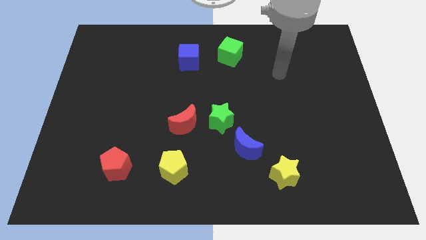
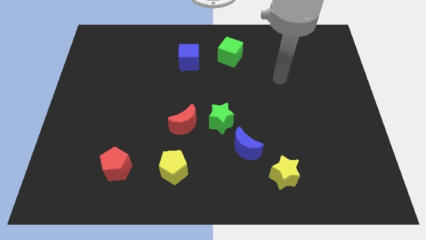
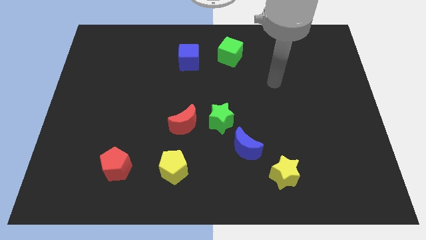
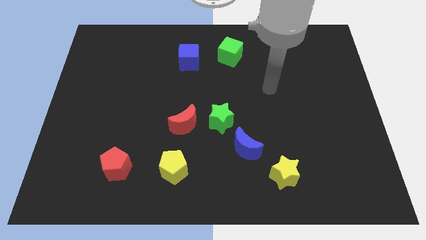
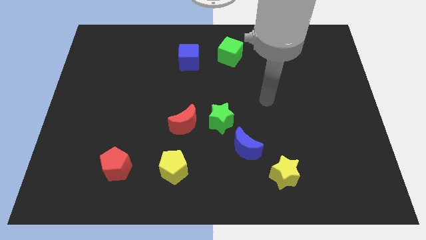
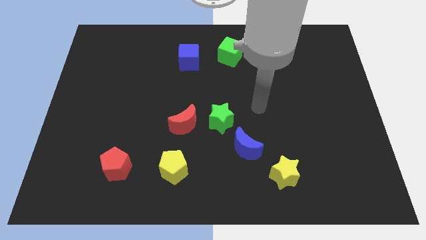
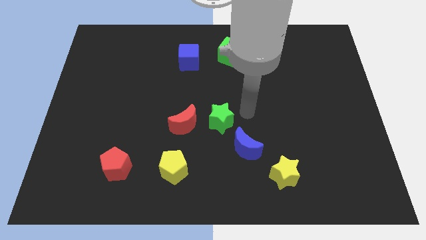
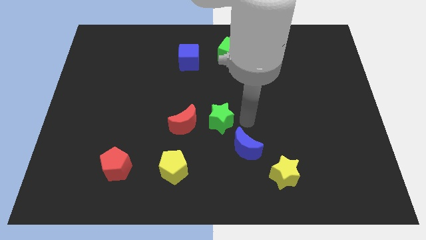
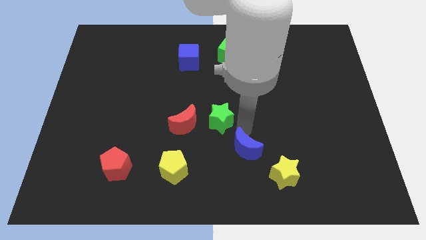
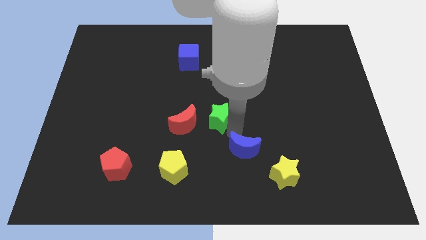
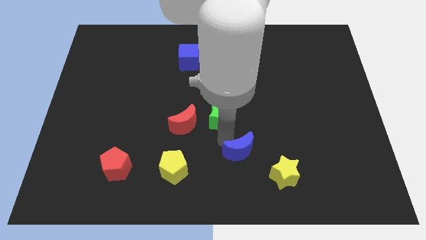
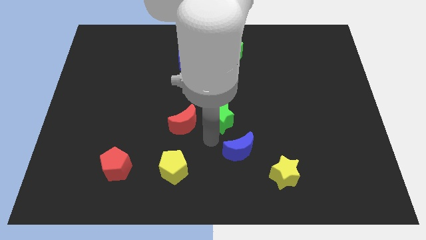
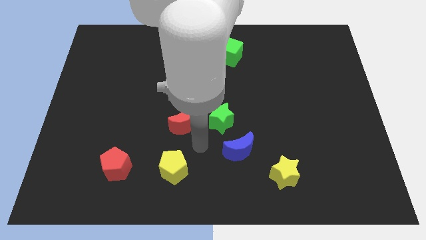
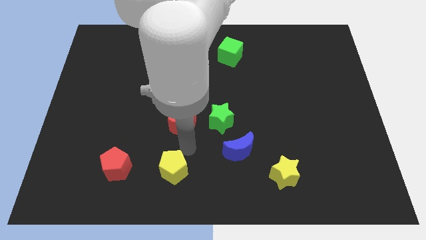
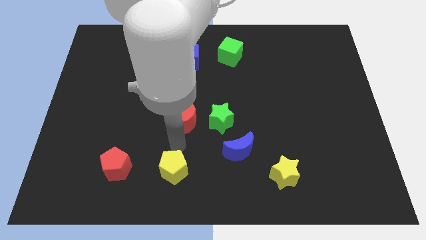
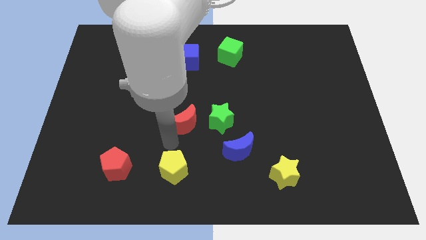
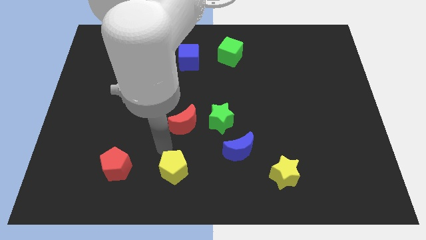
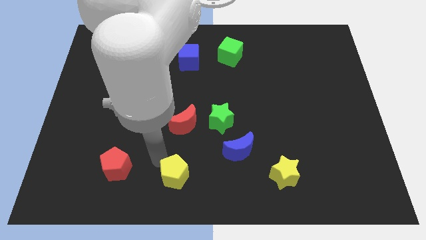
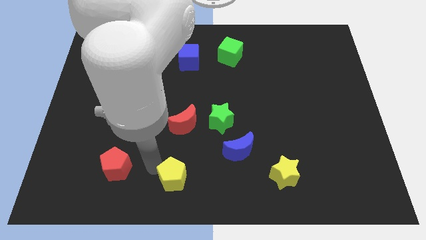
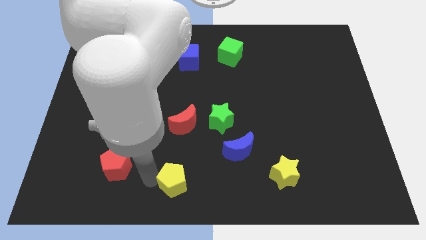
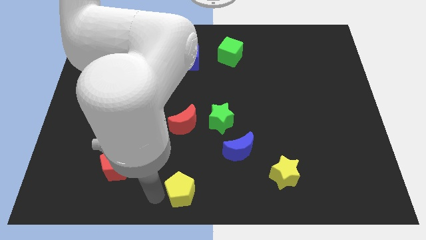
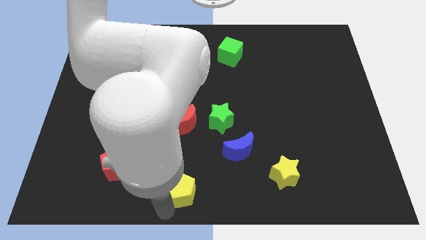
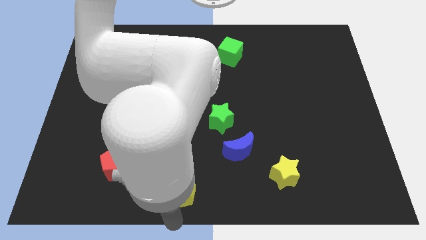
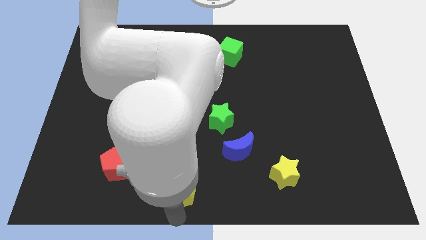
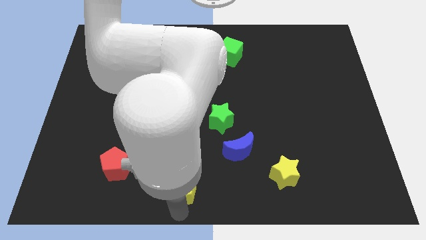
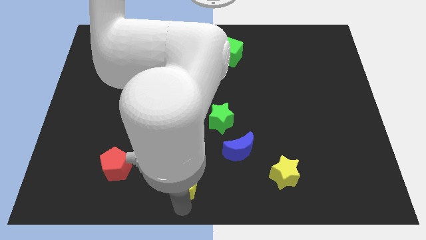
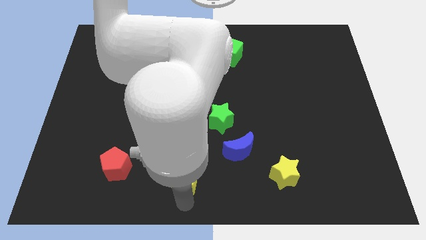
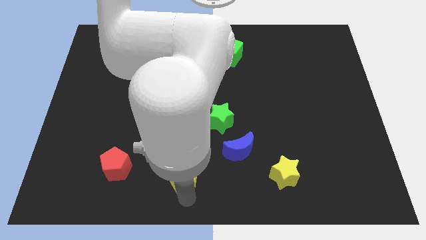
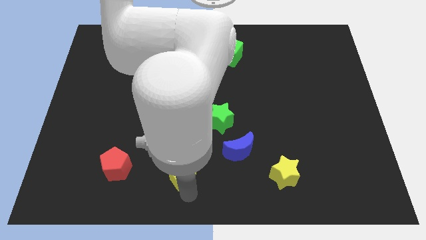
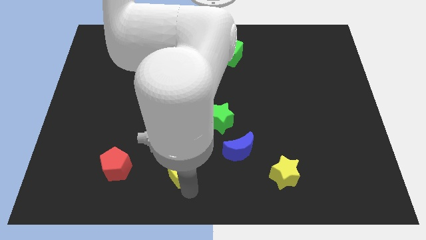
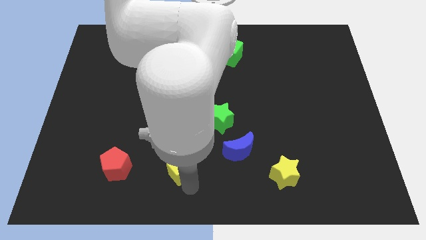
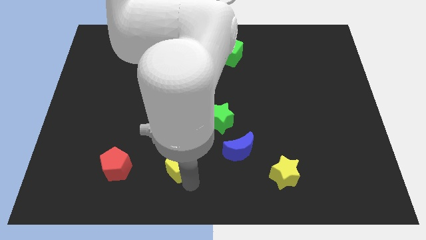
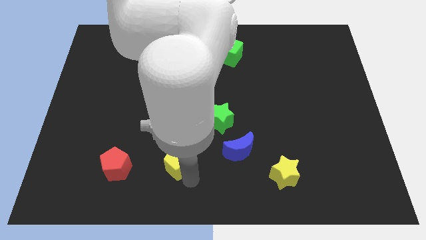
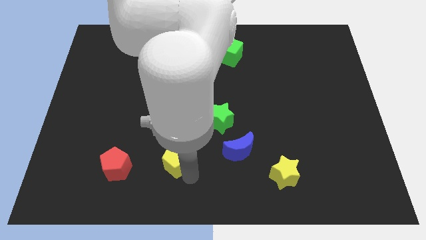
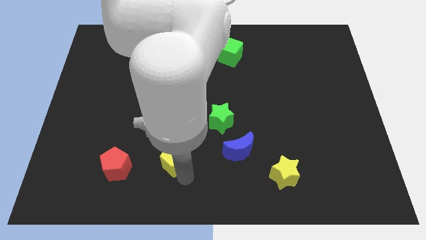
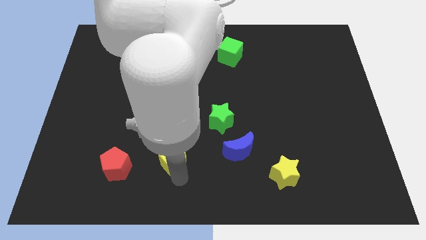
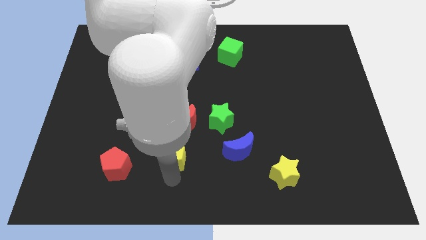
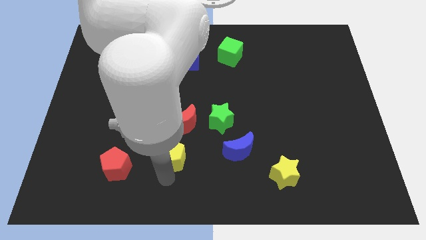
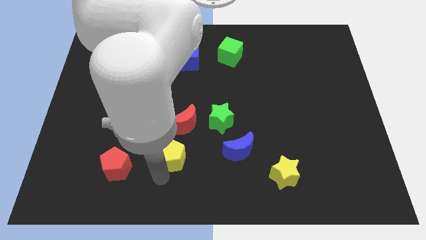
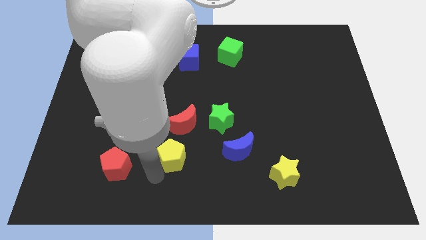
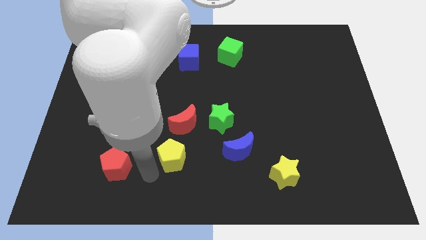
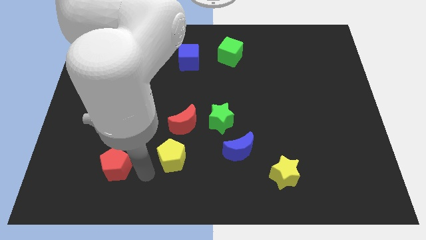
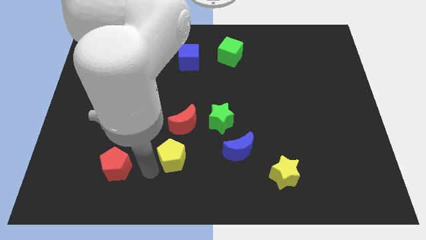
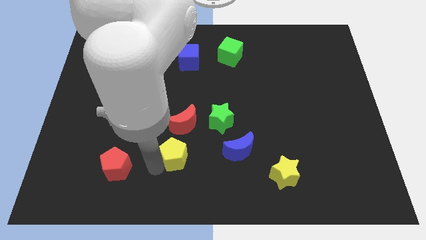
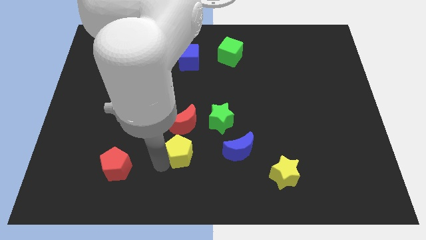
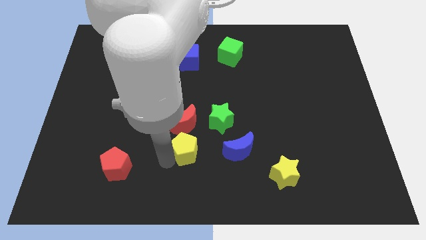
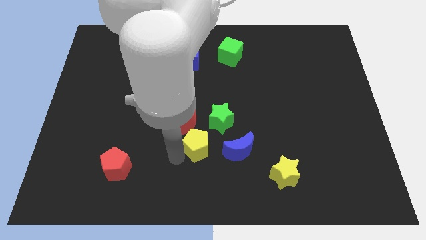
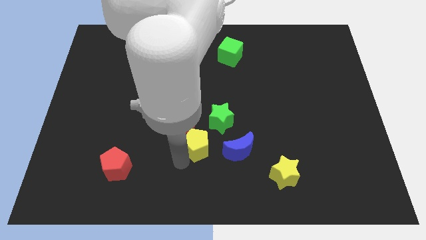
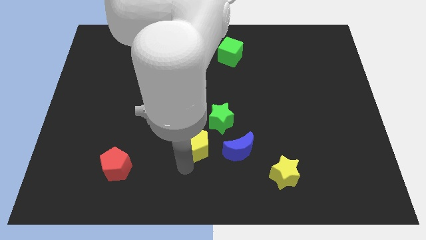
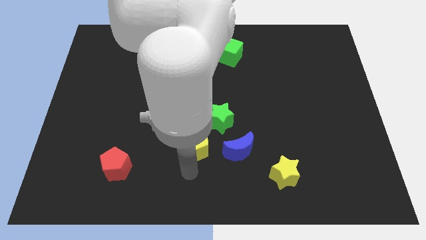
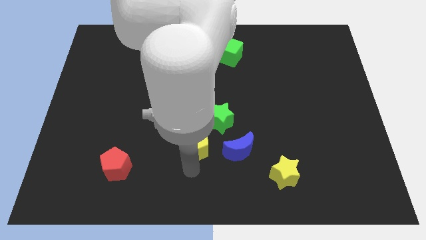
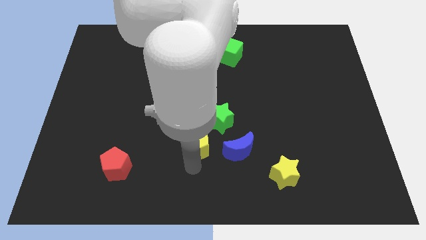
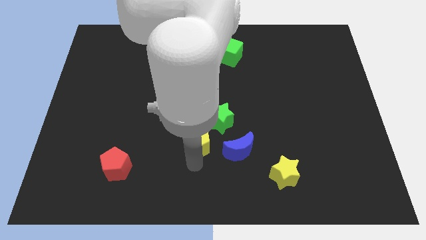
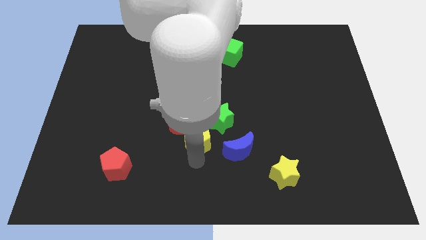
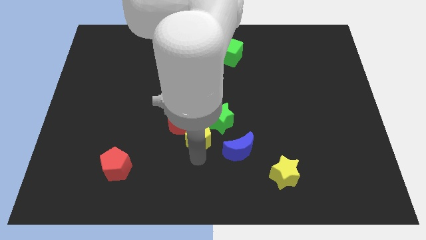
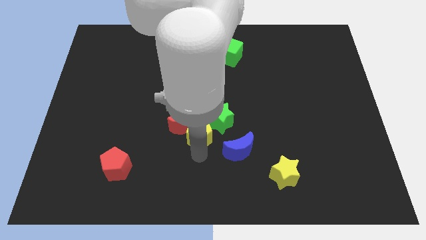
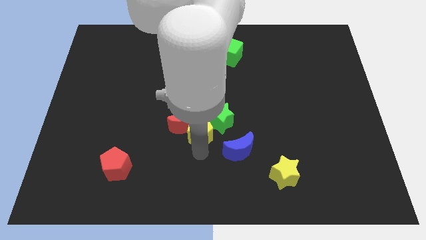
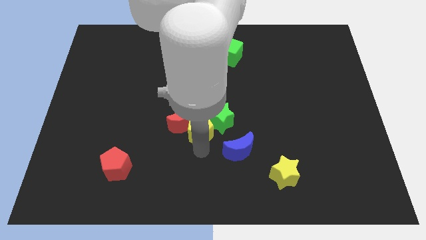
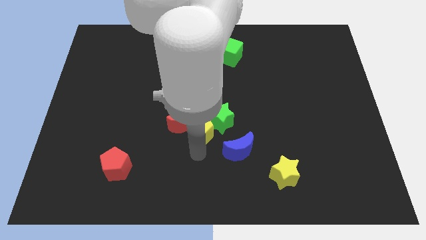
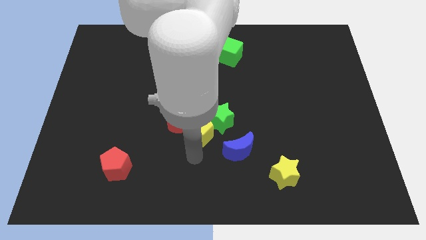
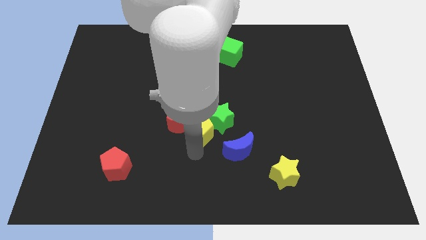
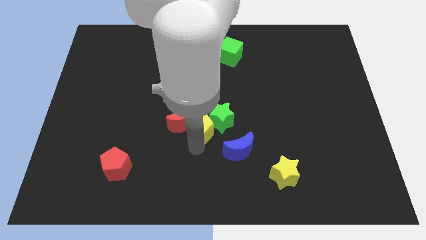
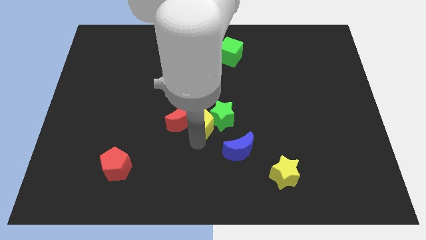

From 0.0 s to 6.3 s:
push the yellow pentagon to the top right side of the red moon

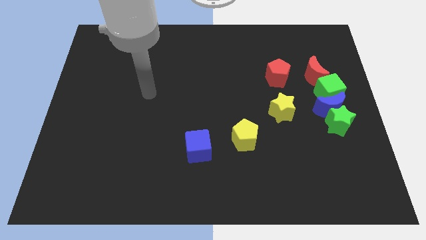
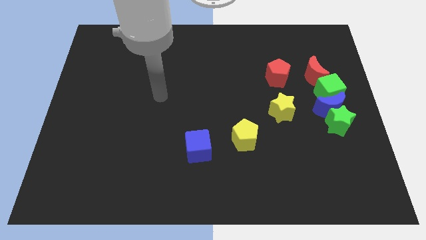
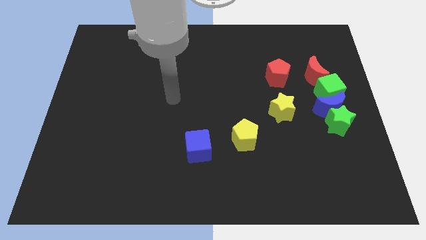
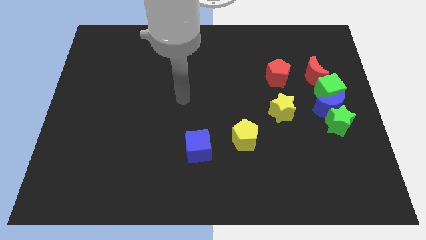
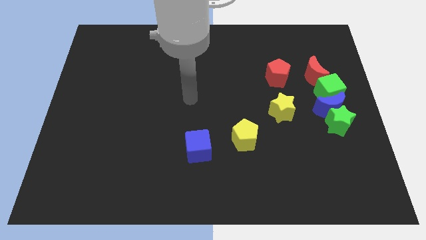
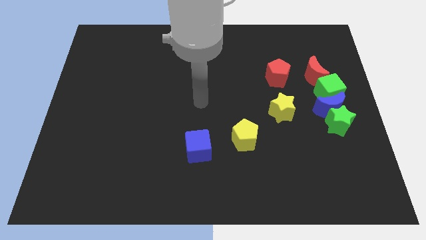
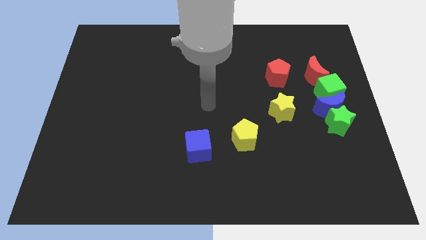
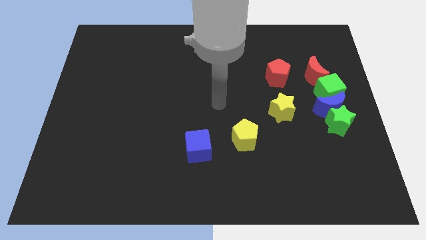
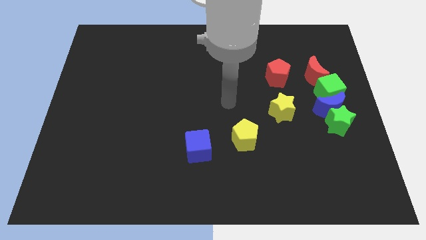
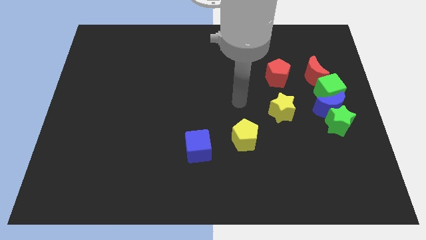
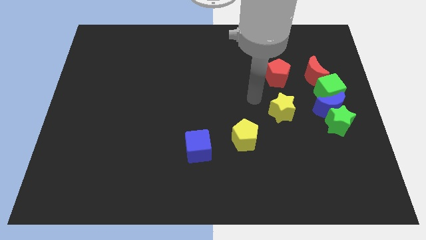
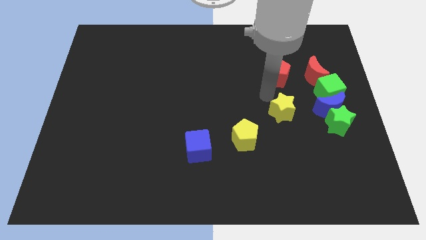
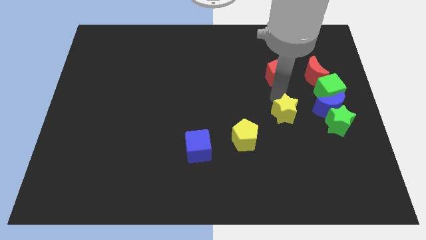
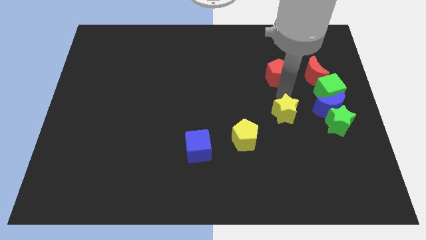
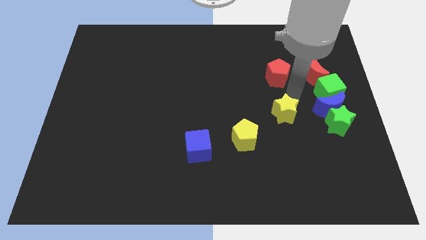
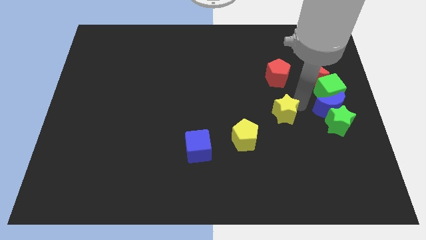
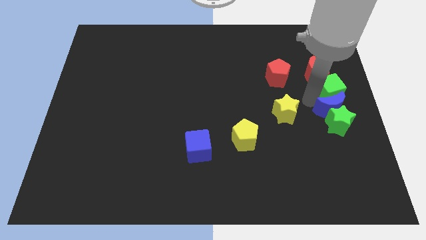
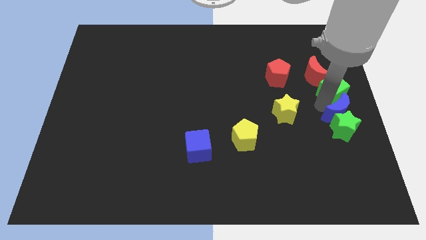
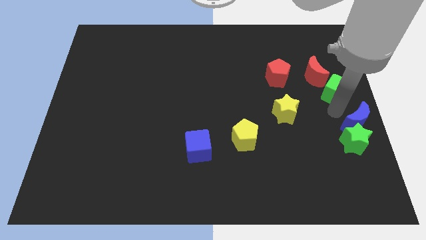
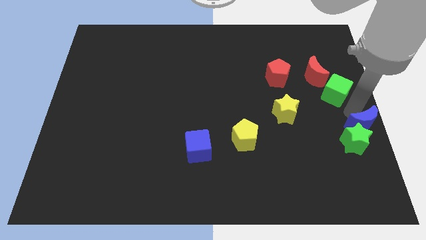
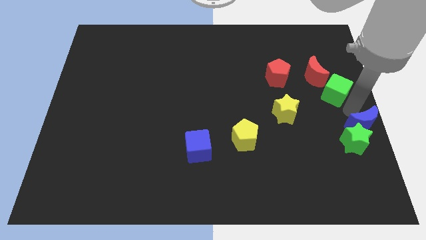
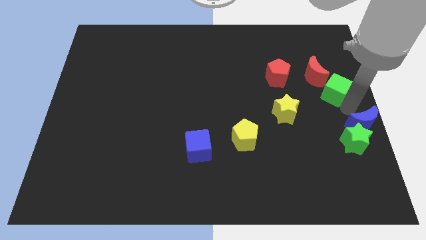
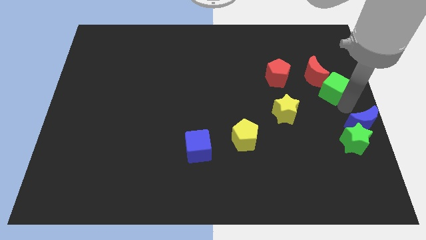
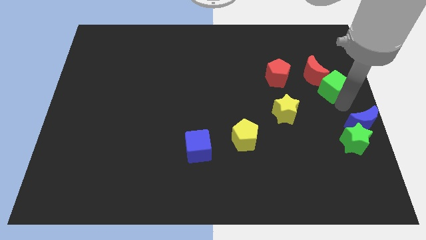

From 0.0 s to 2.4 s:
slide the green cube to the right of the red pentagon
